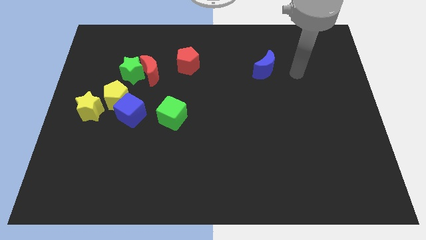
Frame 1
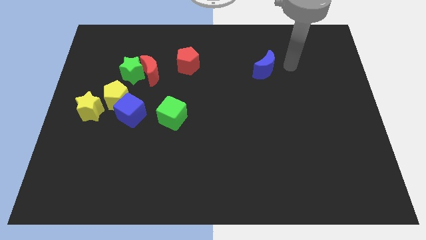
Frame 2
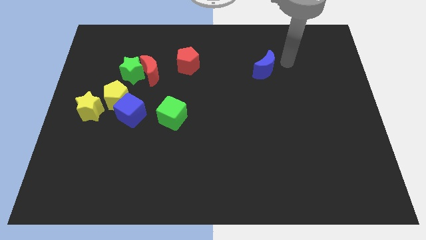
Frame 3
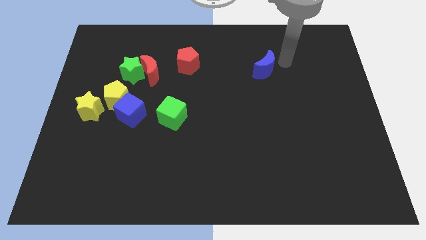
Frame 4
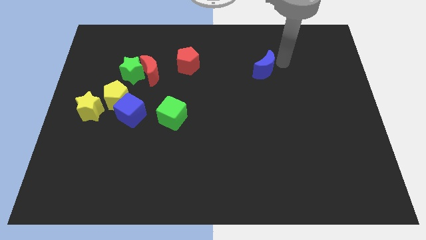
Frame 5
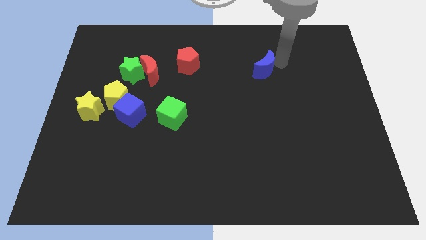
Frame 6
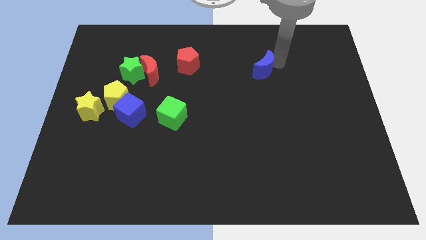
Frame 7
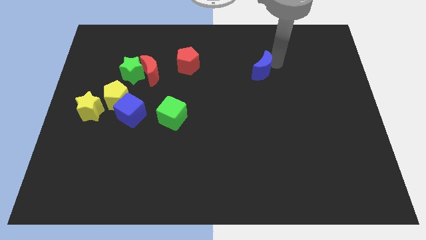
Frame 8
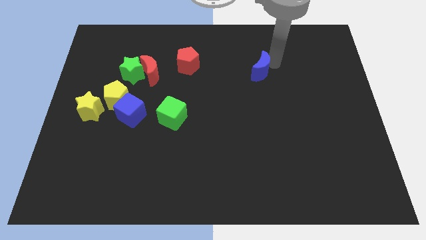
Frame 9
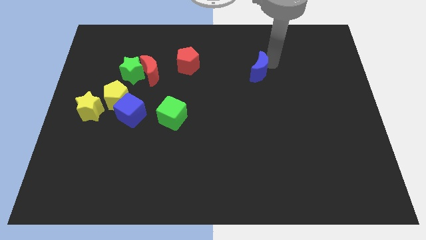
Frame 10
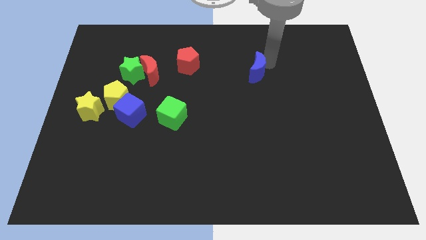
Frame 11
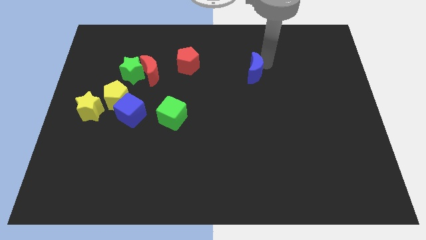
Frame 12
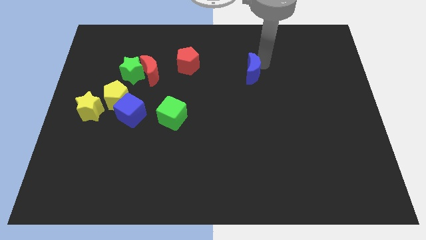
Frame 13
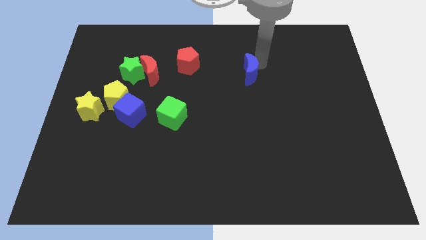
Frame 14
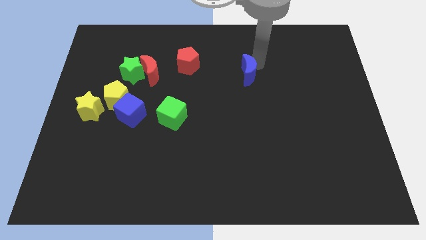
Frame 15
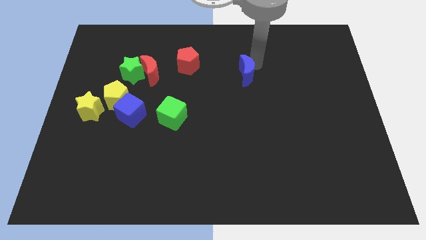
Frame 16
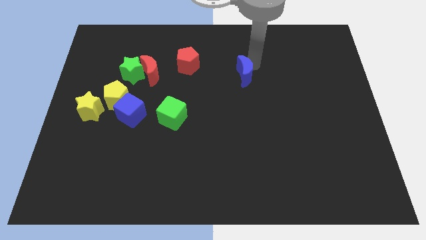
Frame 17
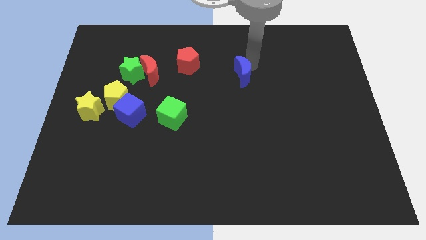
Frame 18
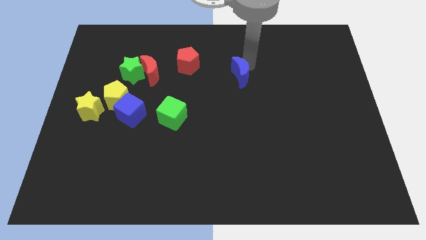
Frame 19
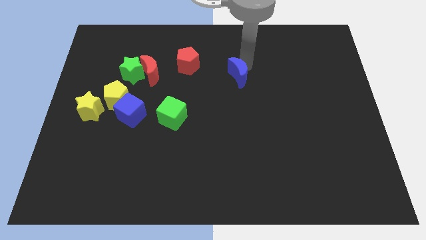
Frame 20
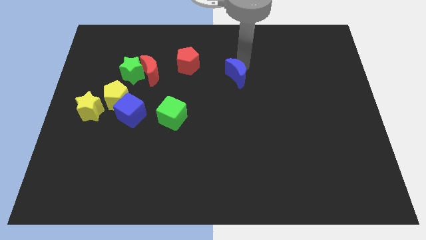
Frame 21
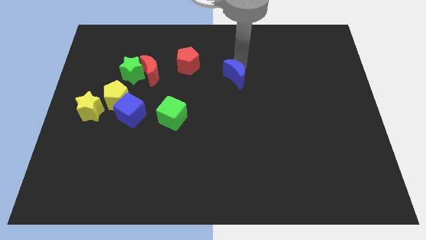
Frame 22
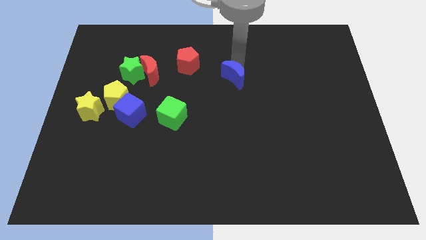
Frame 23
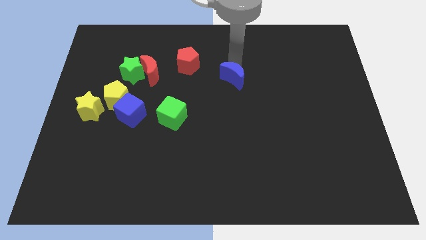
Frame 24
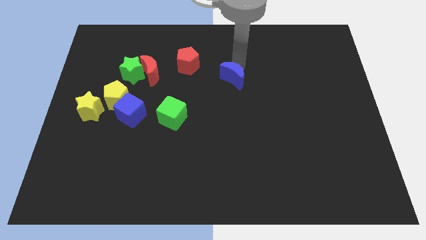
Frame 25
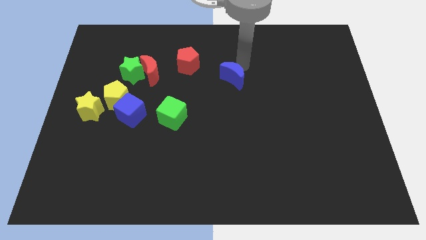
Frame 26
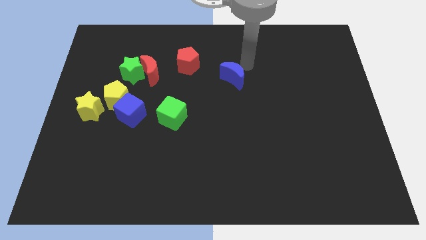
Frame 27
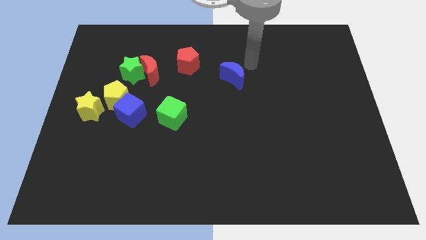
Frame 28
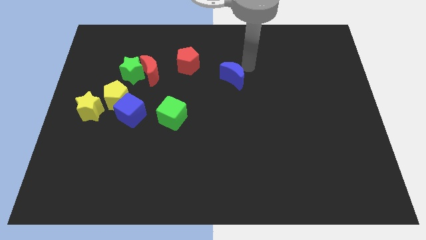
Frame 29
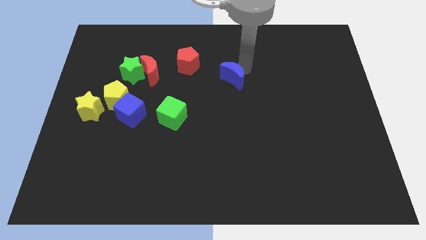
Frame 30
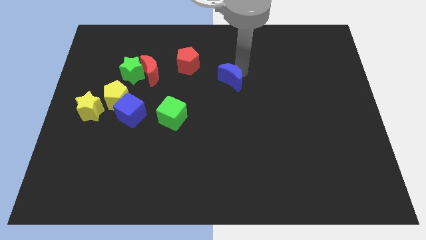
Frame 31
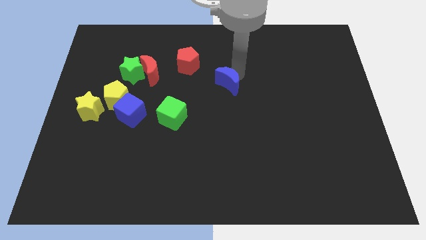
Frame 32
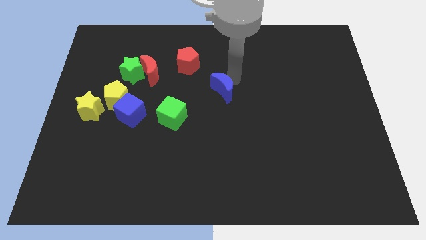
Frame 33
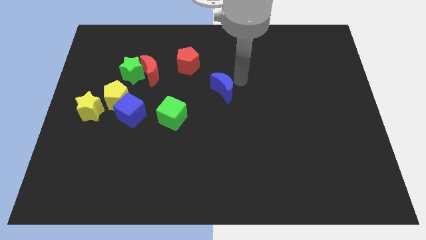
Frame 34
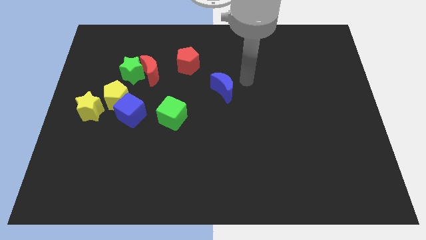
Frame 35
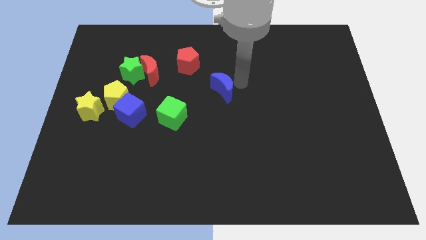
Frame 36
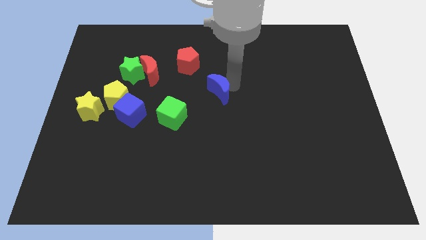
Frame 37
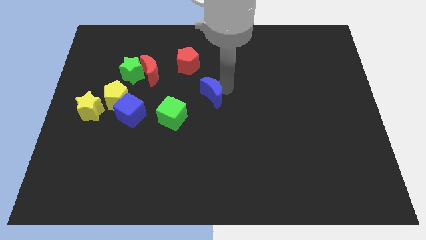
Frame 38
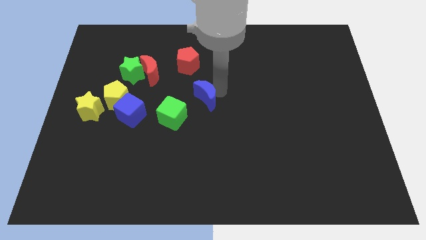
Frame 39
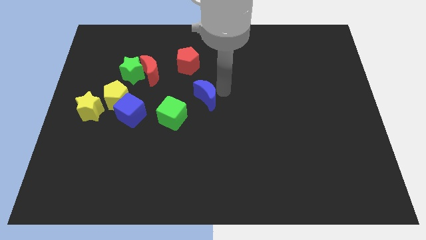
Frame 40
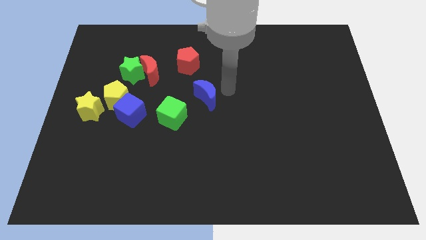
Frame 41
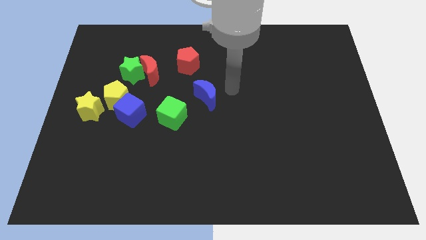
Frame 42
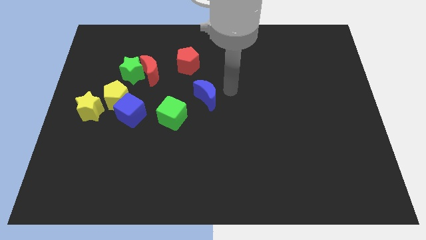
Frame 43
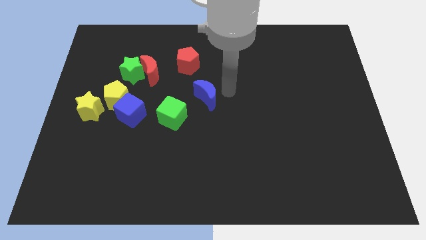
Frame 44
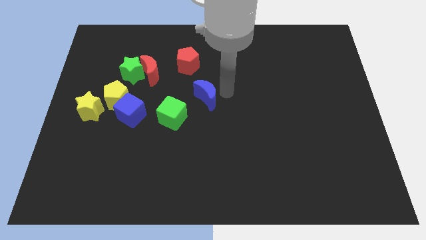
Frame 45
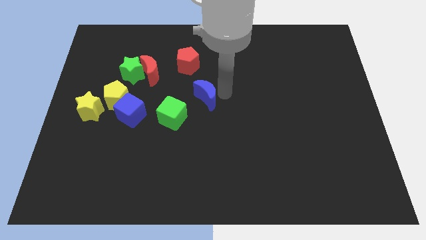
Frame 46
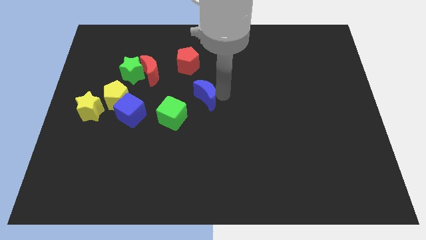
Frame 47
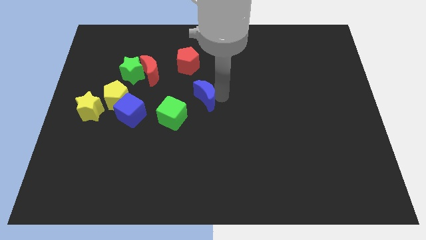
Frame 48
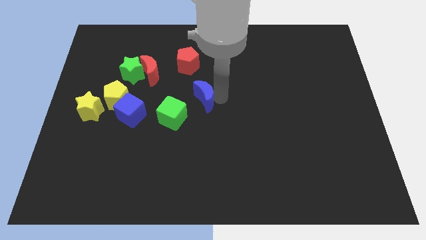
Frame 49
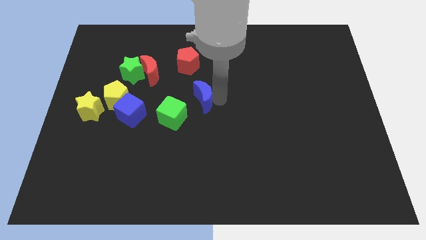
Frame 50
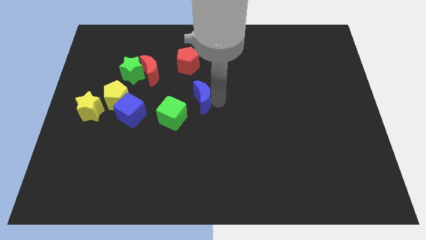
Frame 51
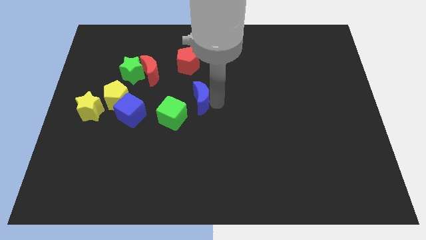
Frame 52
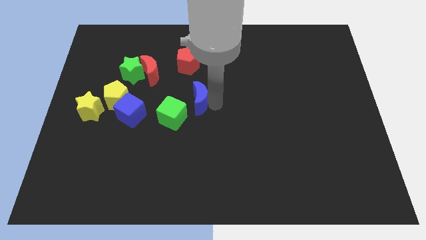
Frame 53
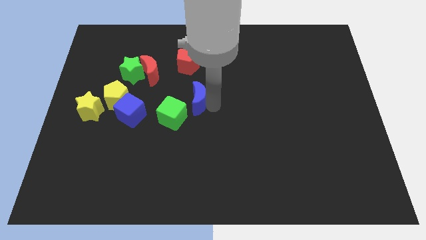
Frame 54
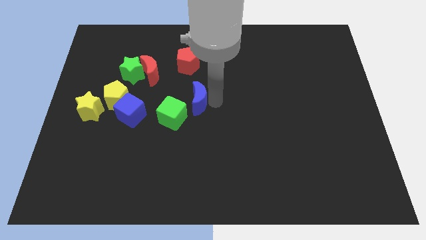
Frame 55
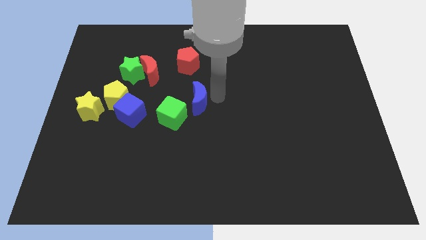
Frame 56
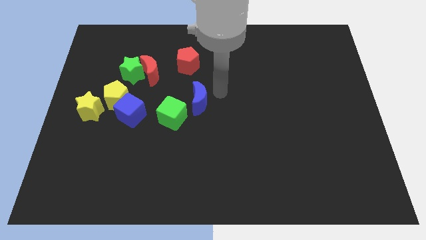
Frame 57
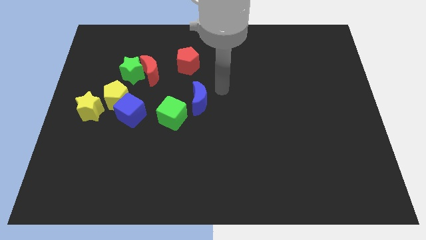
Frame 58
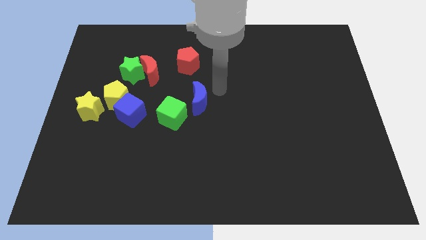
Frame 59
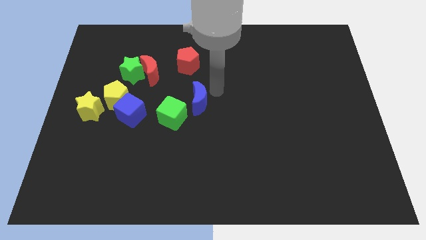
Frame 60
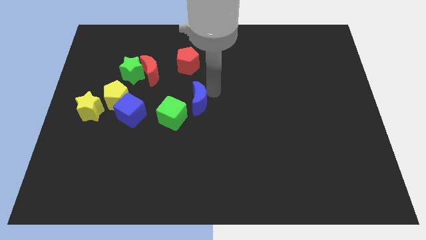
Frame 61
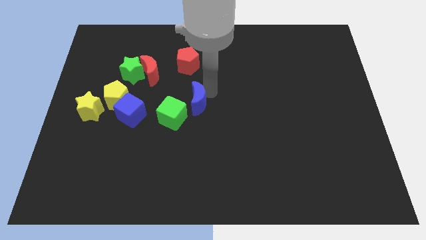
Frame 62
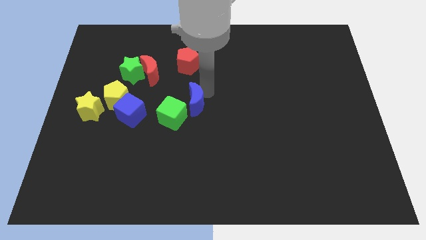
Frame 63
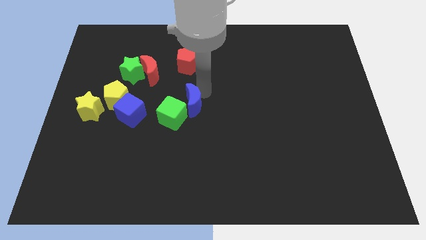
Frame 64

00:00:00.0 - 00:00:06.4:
put the blue moon to the green cube

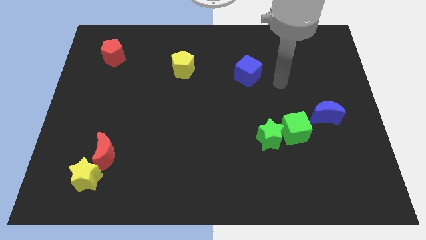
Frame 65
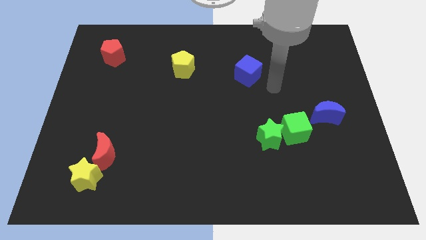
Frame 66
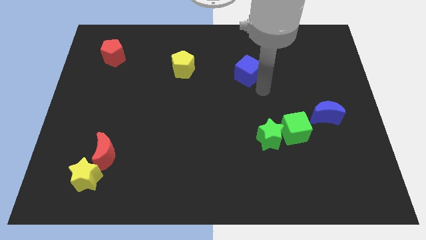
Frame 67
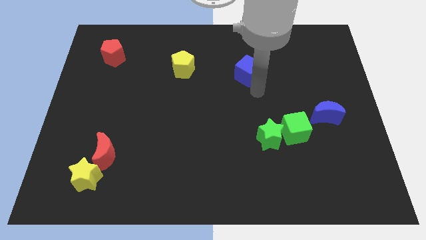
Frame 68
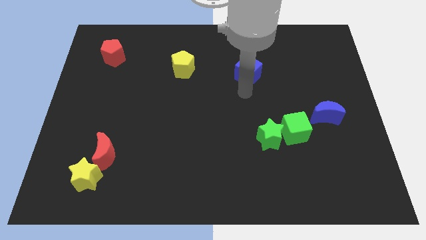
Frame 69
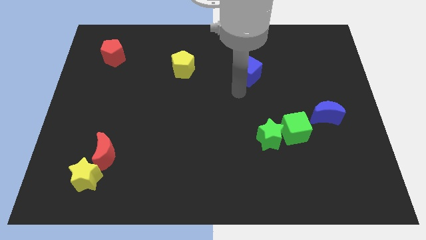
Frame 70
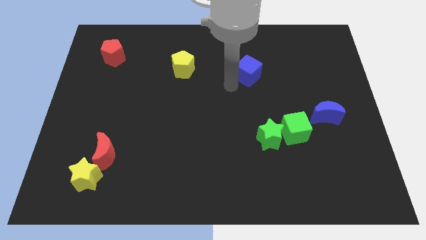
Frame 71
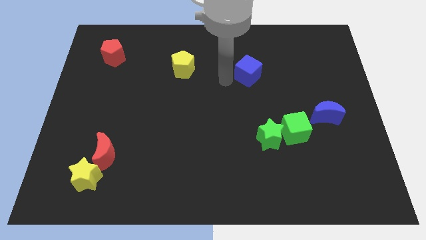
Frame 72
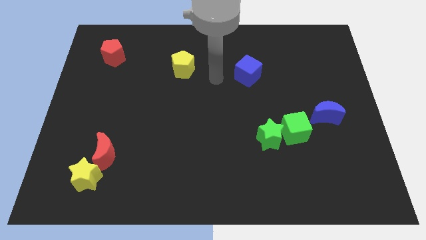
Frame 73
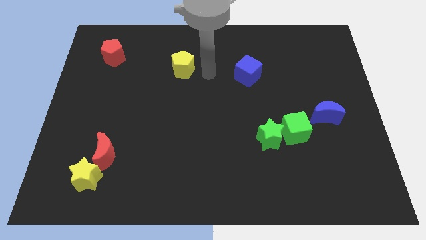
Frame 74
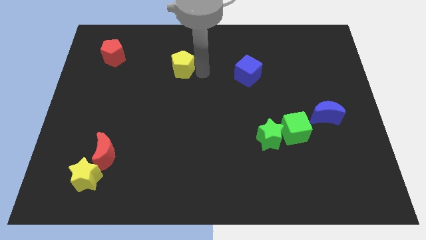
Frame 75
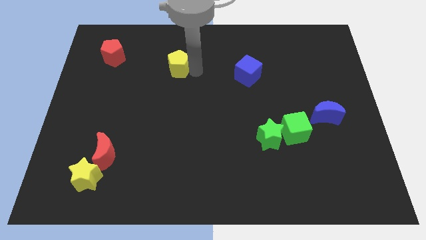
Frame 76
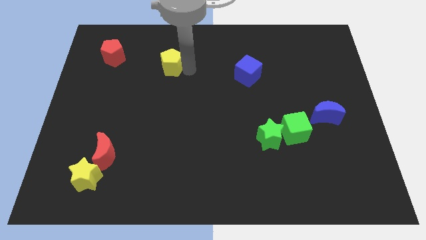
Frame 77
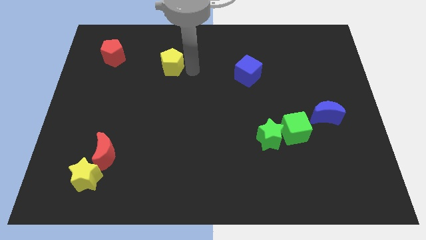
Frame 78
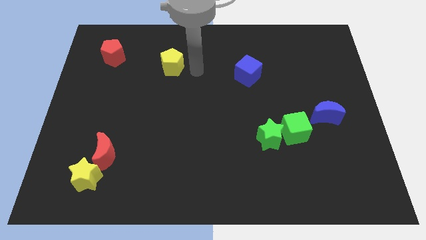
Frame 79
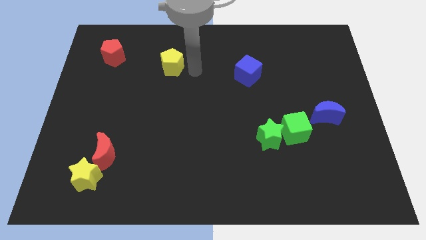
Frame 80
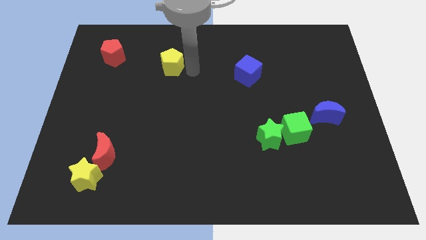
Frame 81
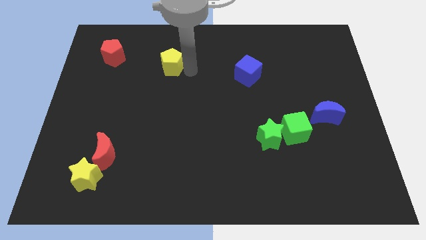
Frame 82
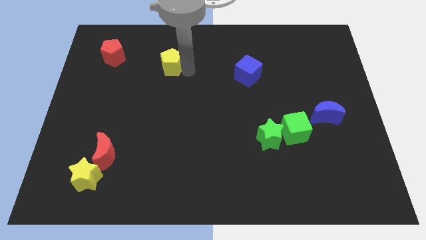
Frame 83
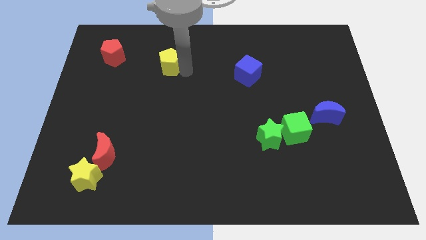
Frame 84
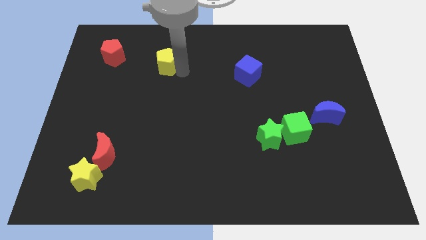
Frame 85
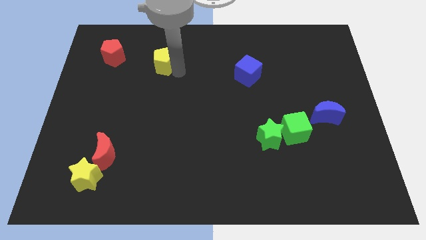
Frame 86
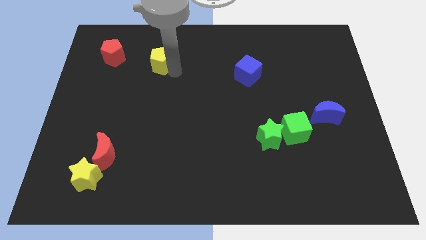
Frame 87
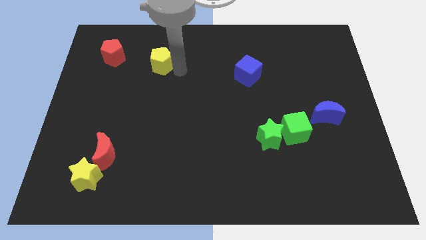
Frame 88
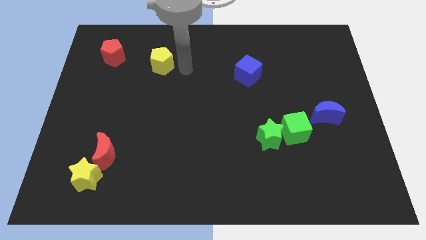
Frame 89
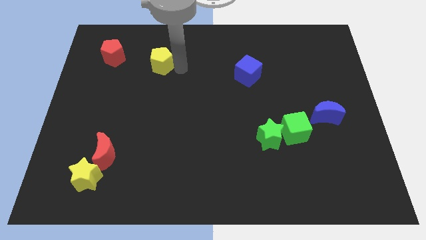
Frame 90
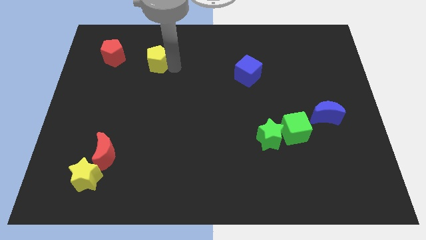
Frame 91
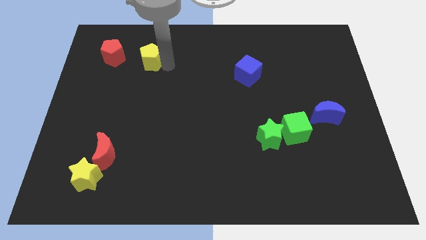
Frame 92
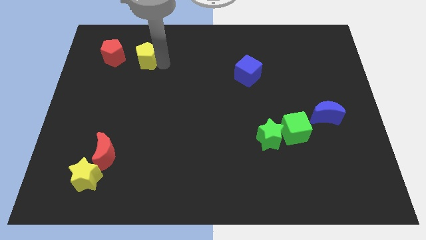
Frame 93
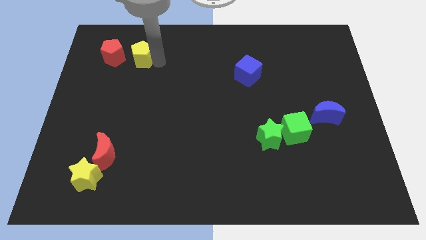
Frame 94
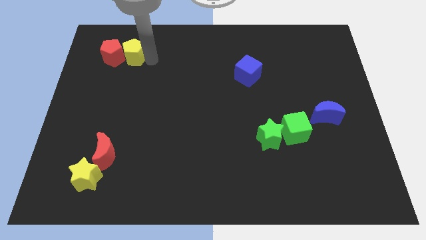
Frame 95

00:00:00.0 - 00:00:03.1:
put the yellow pentagon close to the red pentagon
